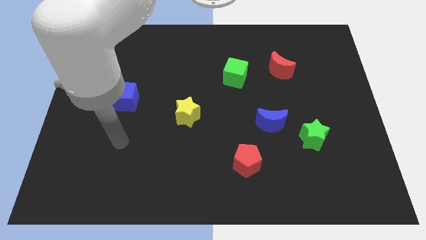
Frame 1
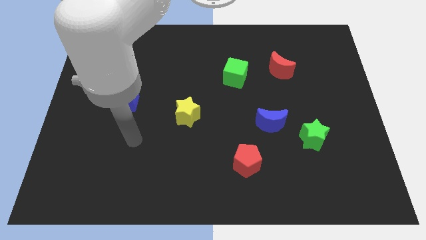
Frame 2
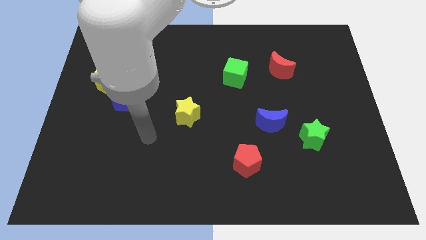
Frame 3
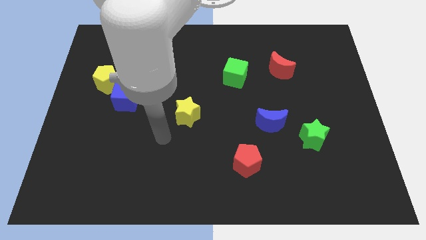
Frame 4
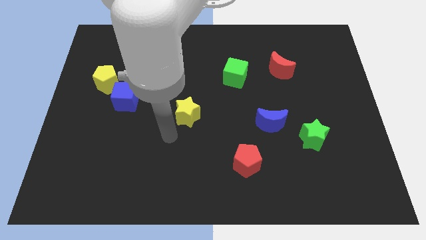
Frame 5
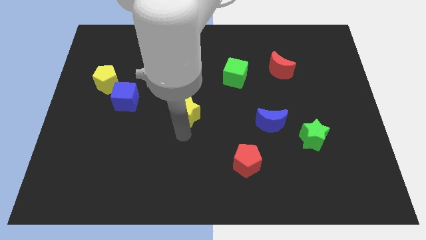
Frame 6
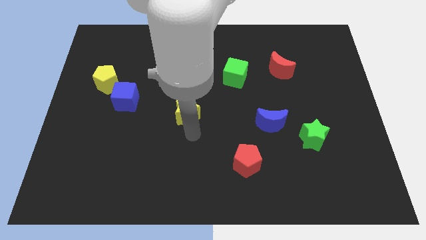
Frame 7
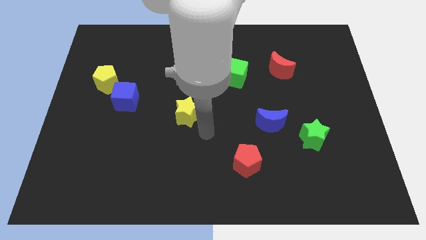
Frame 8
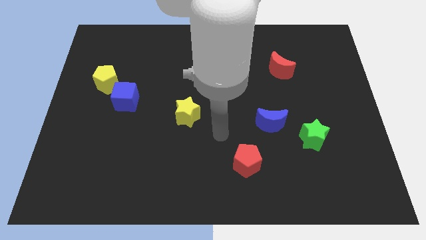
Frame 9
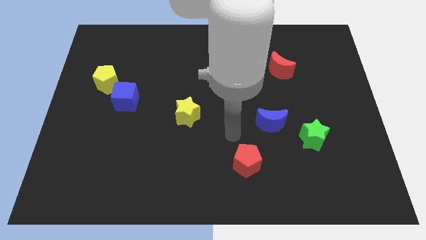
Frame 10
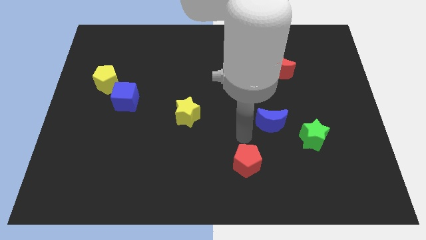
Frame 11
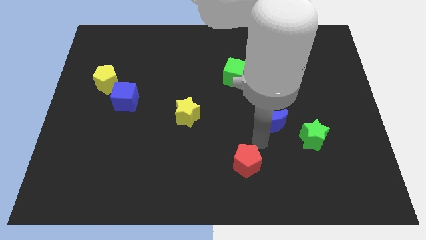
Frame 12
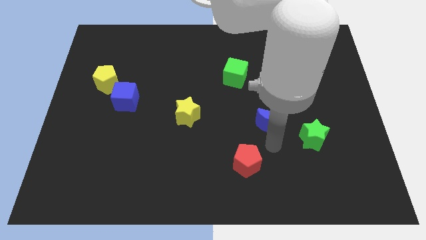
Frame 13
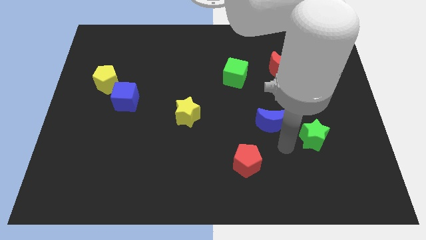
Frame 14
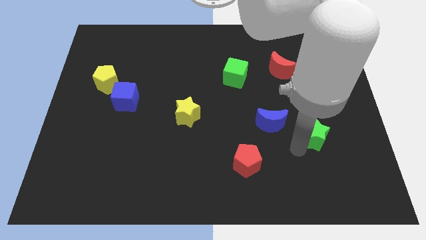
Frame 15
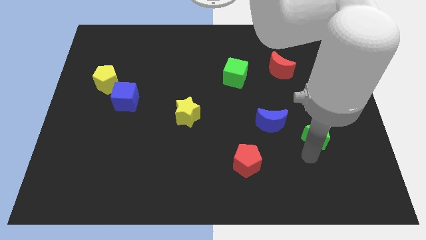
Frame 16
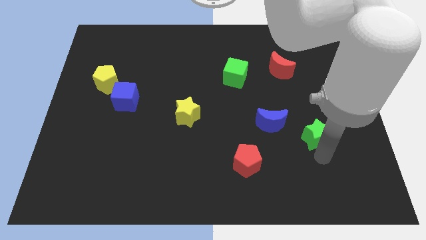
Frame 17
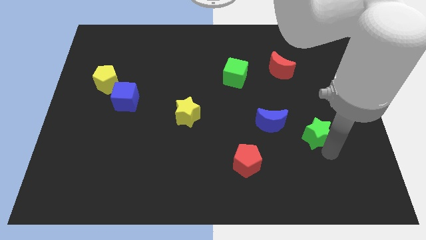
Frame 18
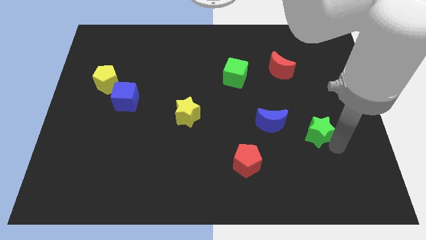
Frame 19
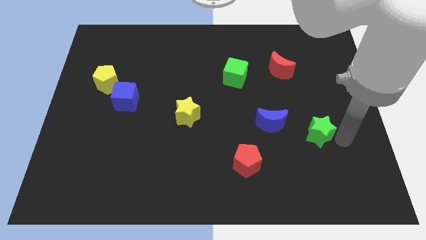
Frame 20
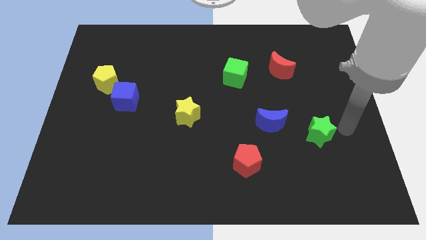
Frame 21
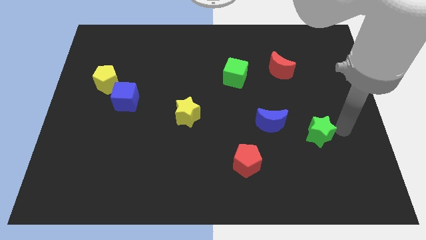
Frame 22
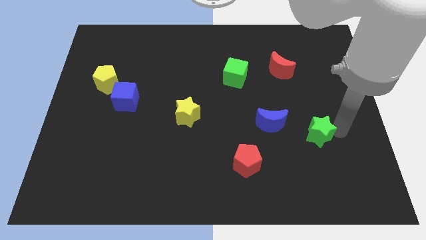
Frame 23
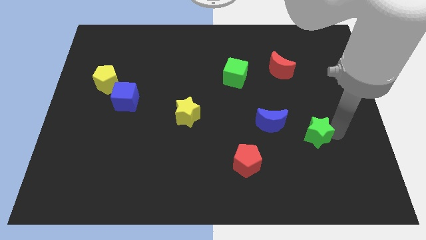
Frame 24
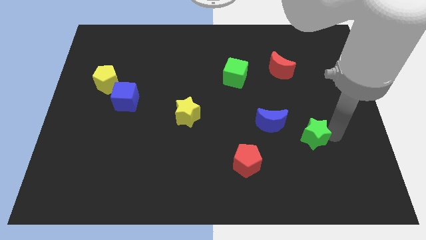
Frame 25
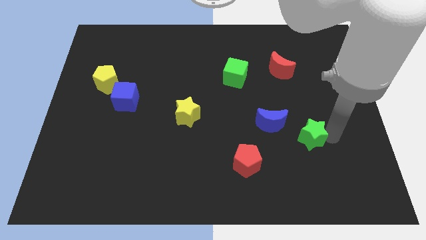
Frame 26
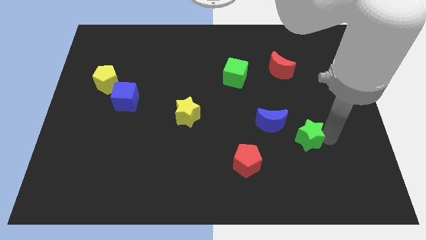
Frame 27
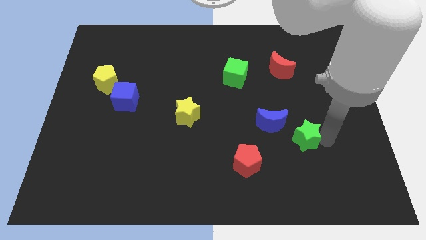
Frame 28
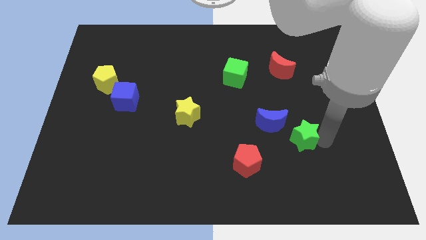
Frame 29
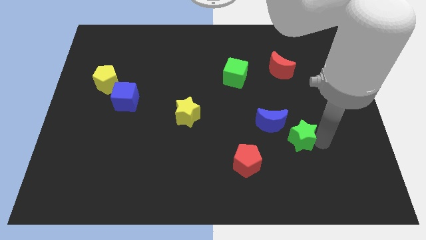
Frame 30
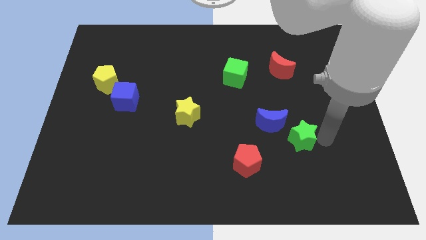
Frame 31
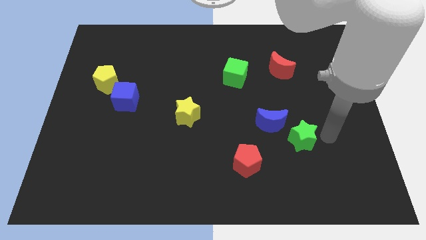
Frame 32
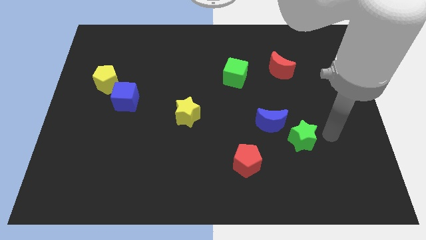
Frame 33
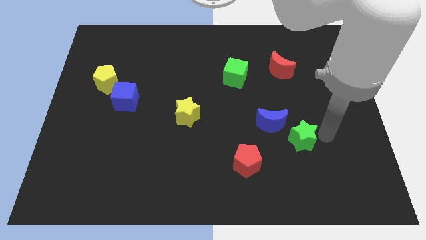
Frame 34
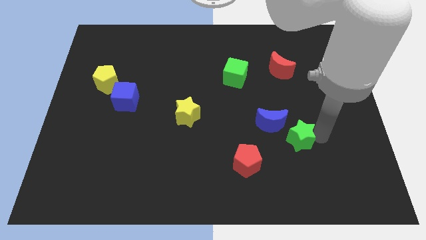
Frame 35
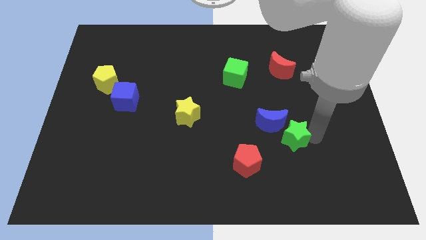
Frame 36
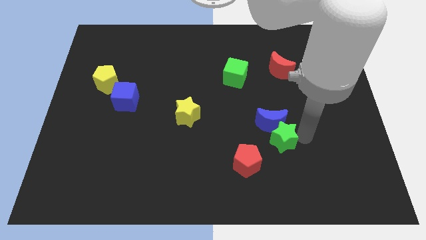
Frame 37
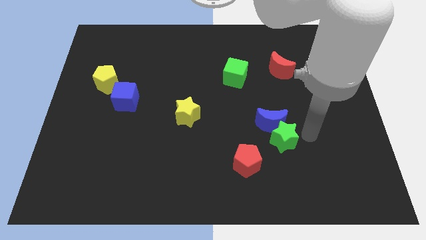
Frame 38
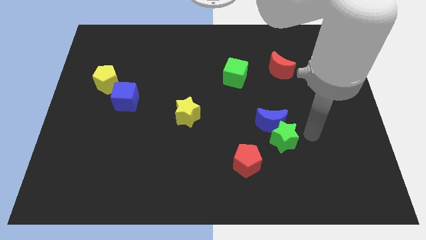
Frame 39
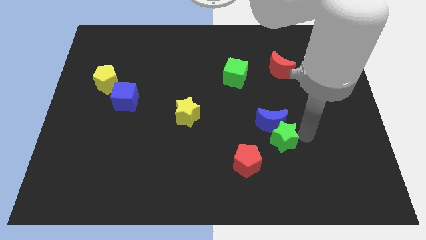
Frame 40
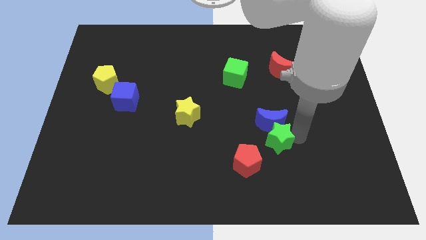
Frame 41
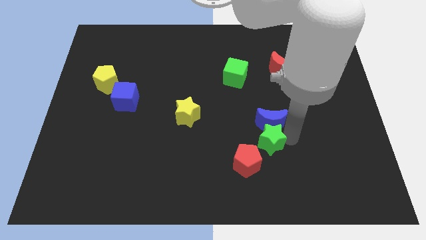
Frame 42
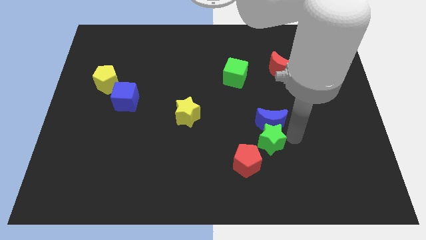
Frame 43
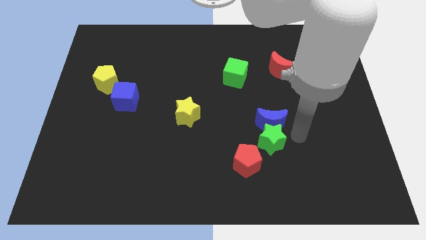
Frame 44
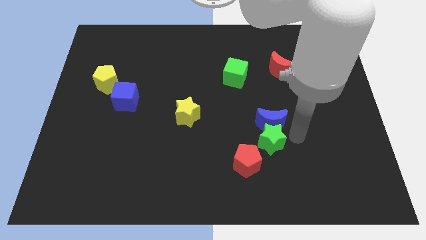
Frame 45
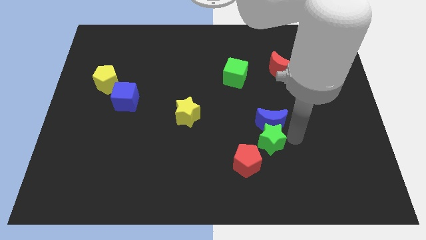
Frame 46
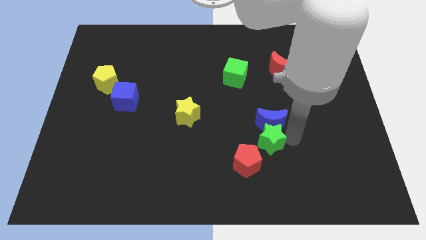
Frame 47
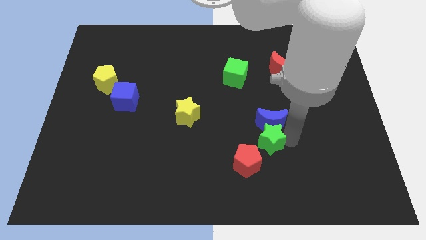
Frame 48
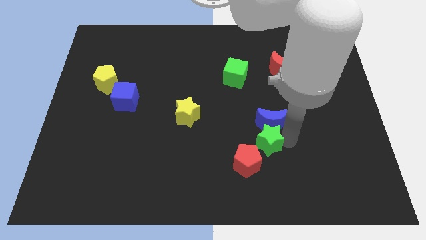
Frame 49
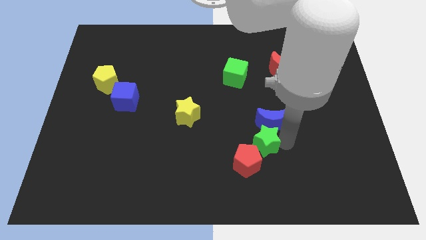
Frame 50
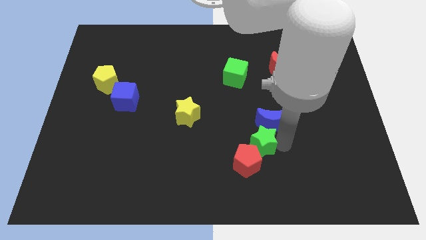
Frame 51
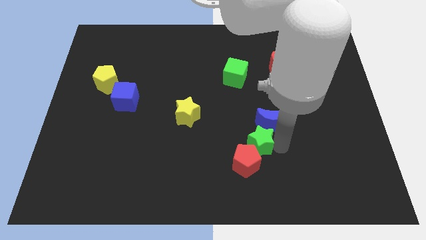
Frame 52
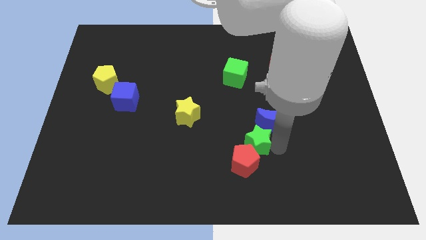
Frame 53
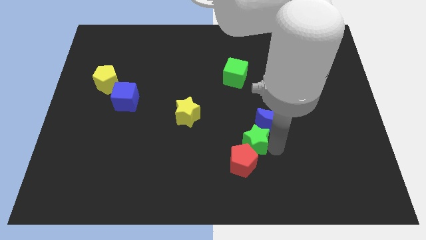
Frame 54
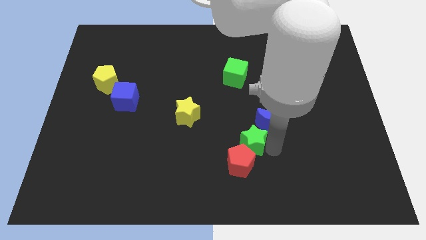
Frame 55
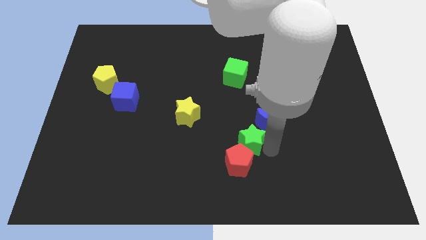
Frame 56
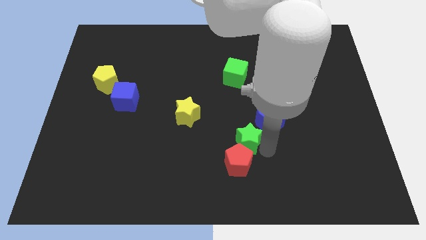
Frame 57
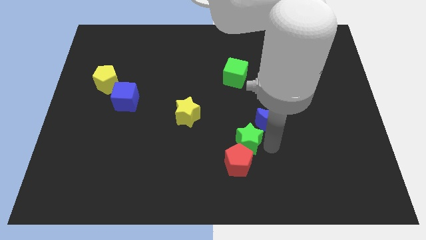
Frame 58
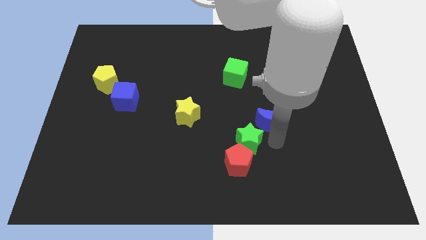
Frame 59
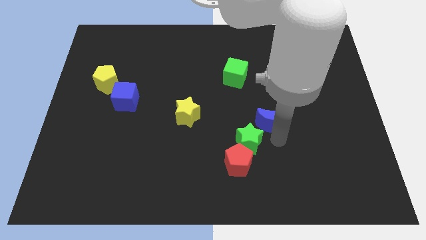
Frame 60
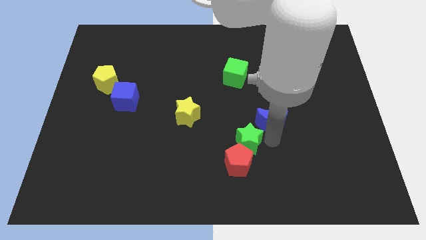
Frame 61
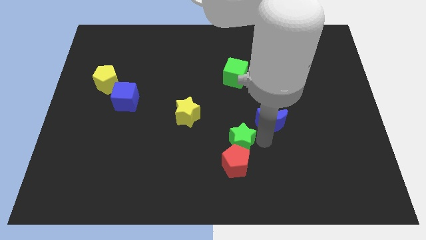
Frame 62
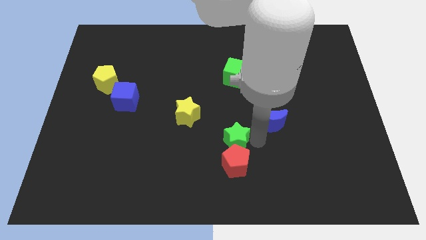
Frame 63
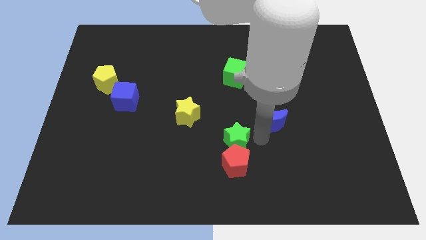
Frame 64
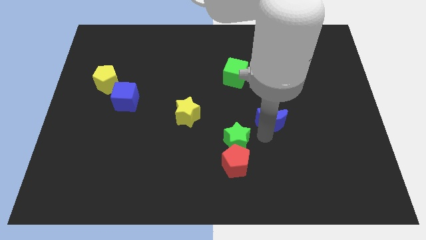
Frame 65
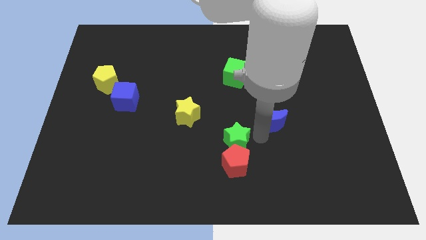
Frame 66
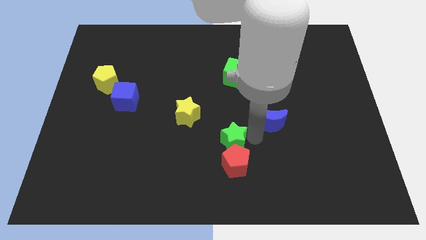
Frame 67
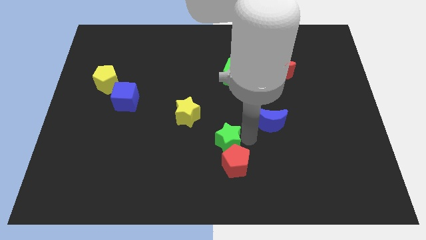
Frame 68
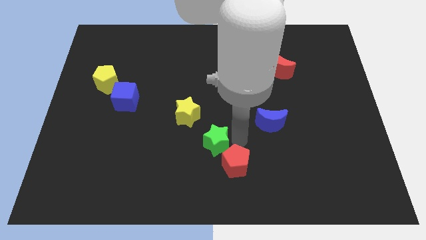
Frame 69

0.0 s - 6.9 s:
move the green star to the left

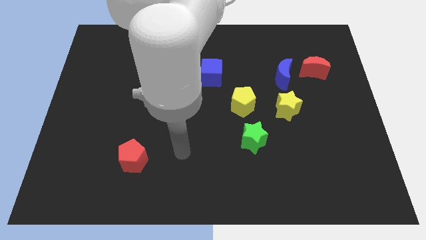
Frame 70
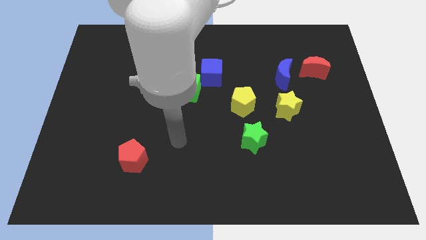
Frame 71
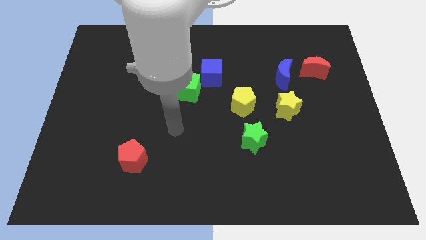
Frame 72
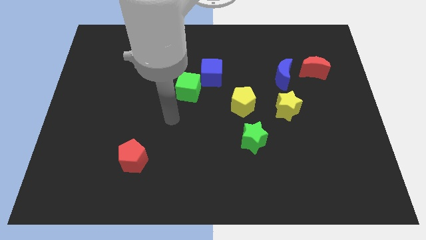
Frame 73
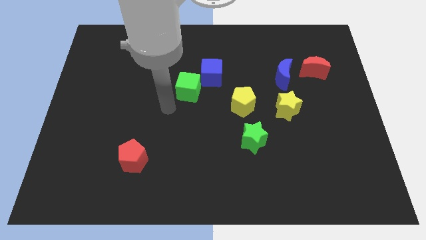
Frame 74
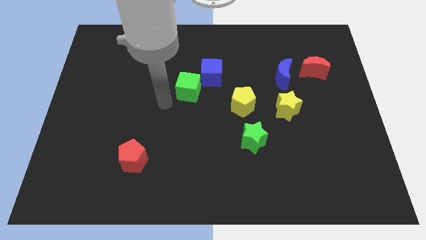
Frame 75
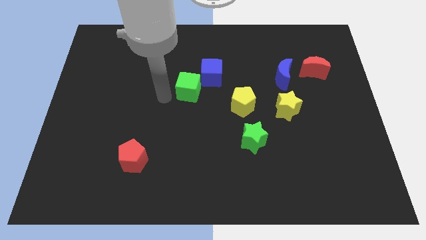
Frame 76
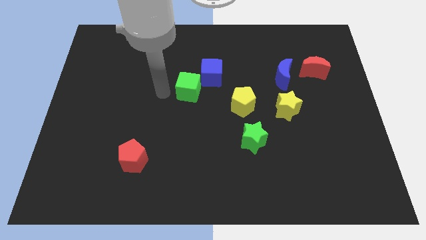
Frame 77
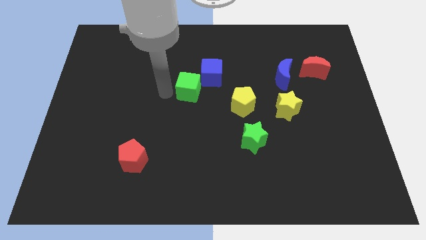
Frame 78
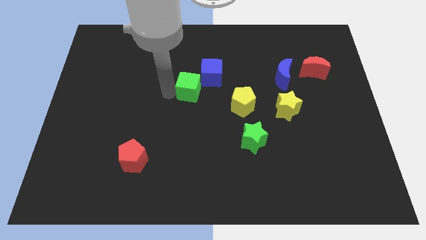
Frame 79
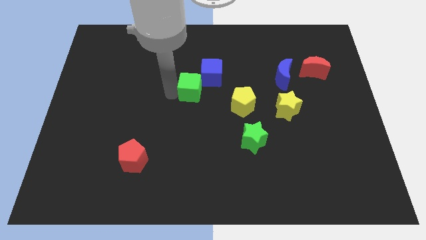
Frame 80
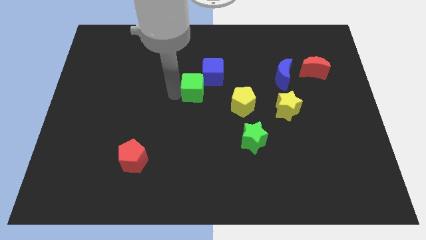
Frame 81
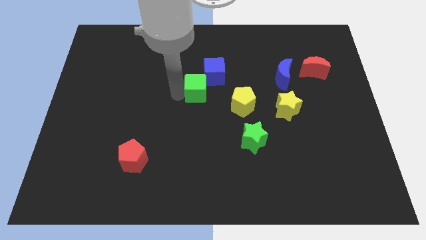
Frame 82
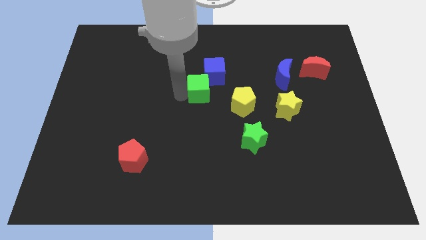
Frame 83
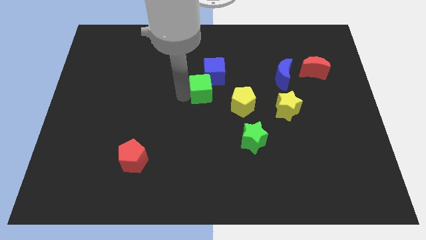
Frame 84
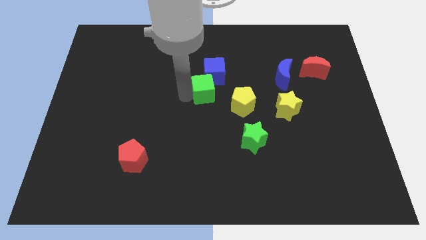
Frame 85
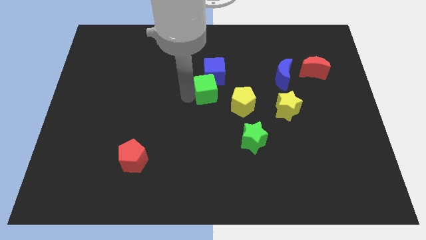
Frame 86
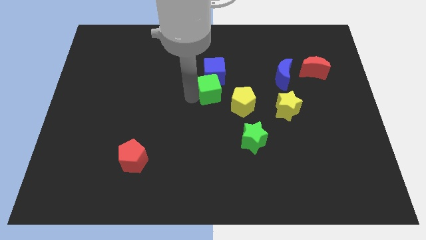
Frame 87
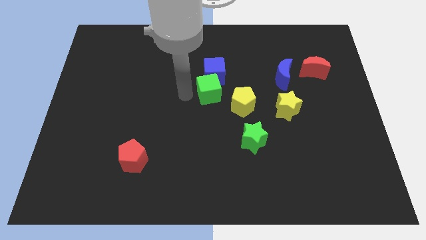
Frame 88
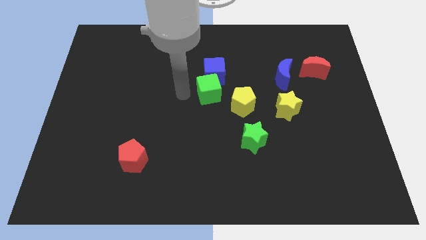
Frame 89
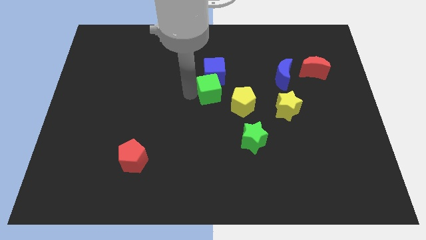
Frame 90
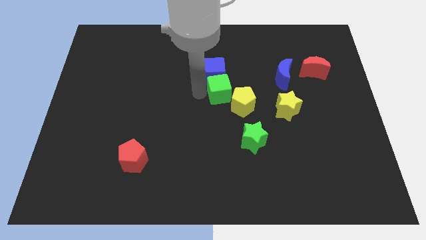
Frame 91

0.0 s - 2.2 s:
slide the green cube right somewhat
